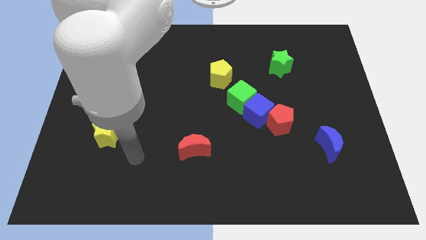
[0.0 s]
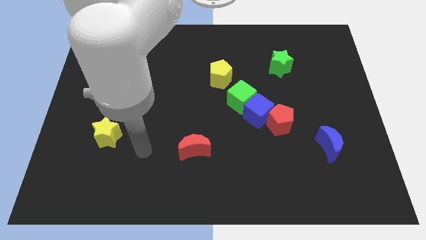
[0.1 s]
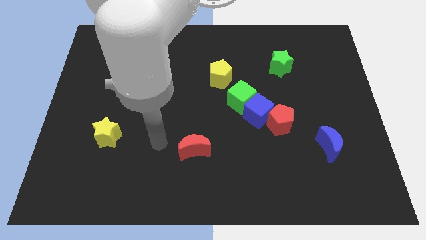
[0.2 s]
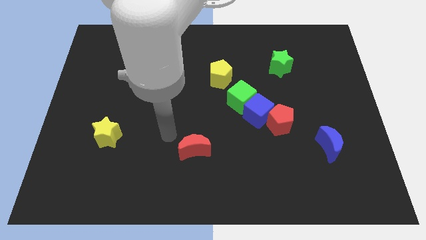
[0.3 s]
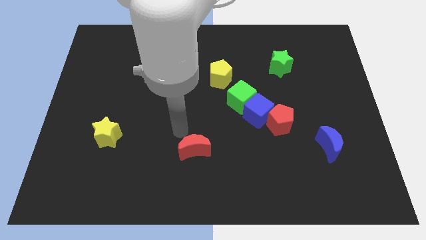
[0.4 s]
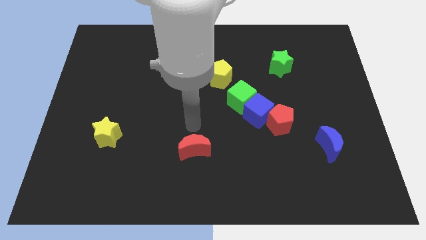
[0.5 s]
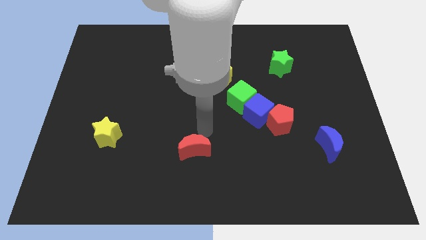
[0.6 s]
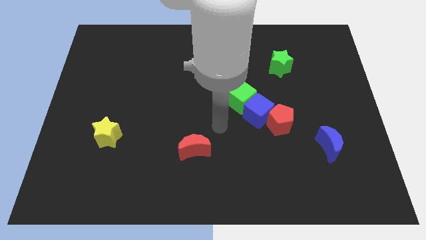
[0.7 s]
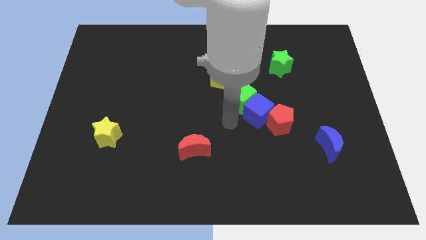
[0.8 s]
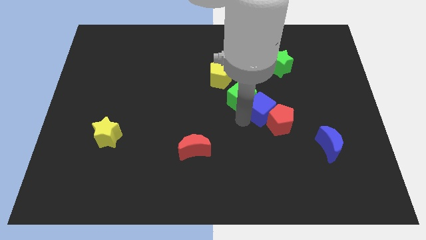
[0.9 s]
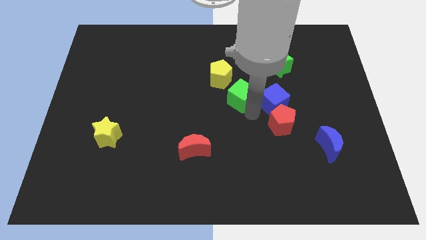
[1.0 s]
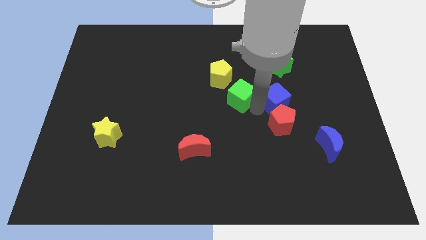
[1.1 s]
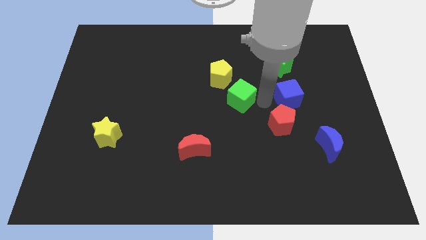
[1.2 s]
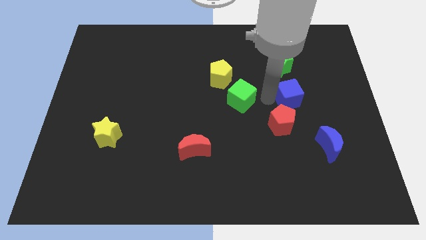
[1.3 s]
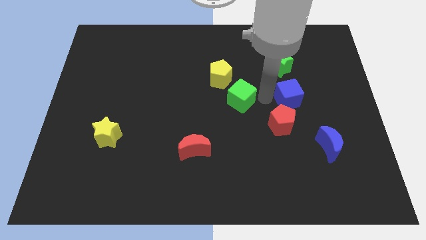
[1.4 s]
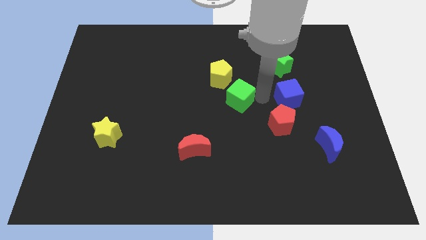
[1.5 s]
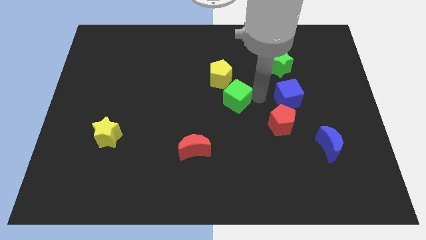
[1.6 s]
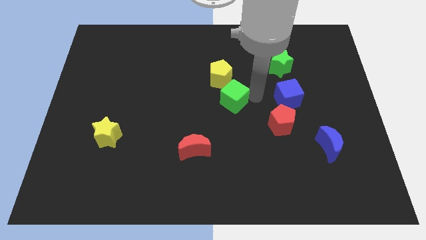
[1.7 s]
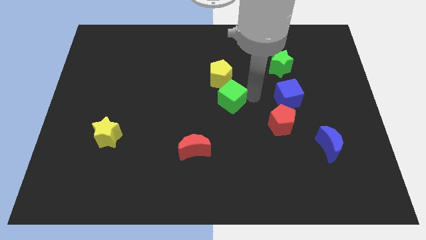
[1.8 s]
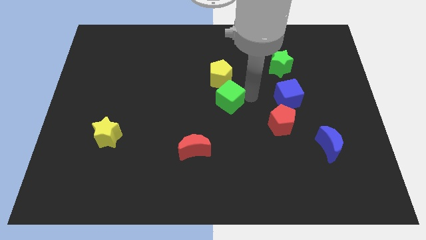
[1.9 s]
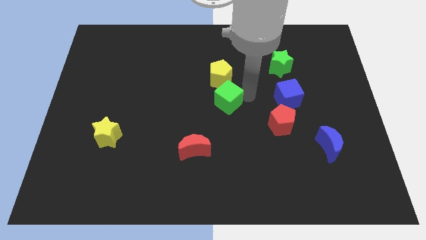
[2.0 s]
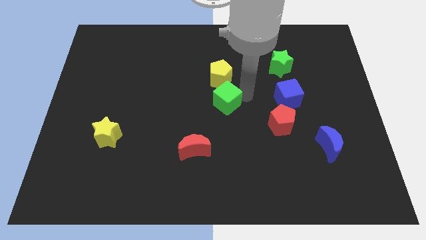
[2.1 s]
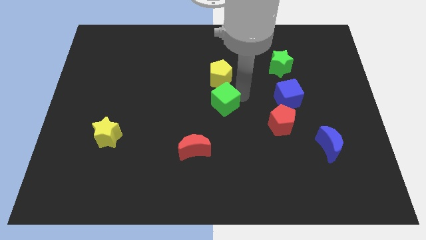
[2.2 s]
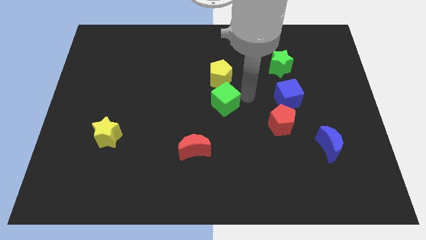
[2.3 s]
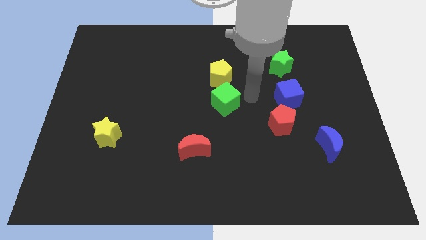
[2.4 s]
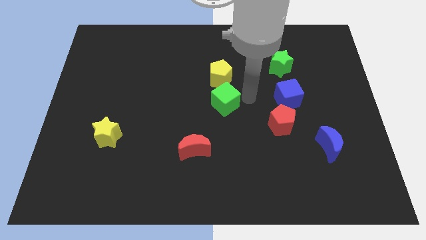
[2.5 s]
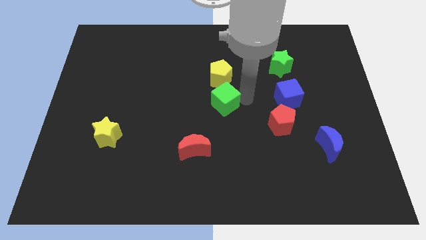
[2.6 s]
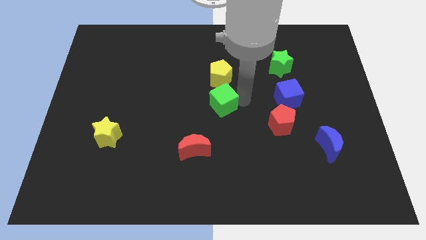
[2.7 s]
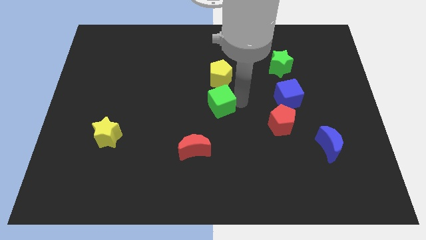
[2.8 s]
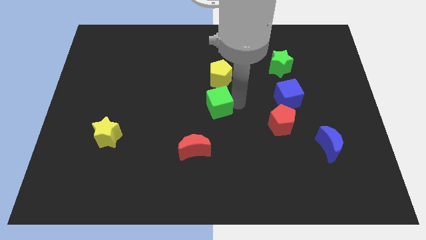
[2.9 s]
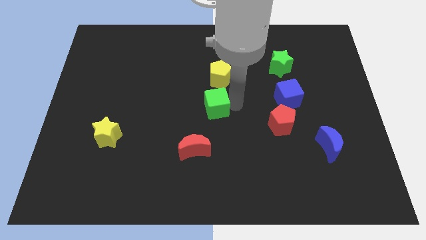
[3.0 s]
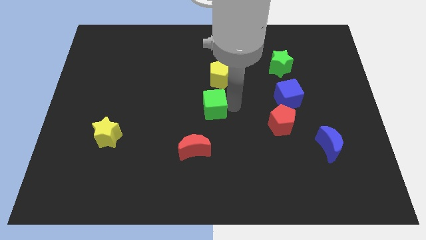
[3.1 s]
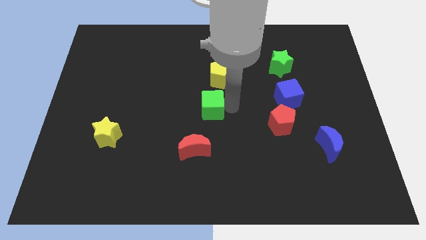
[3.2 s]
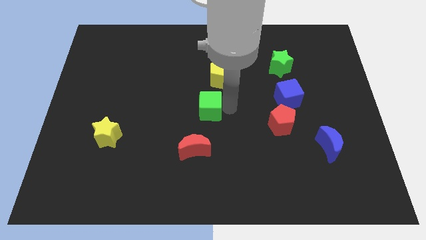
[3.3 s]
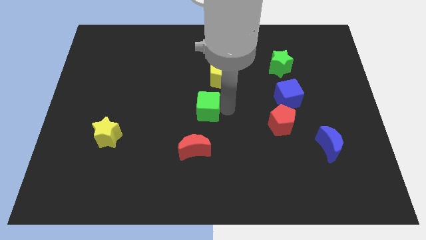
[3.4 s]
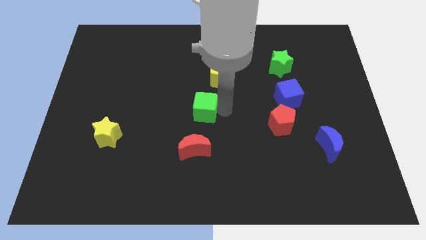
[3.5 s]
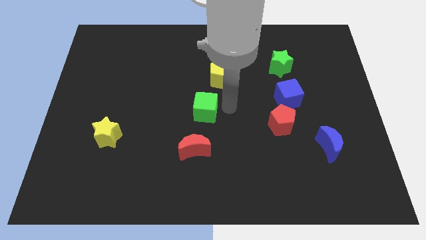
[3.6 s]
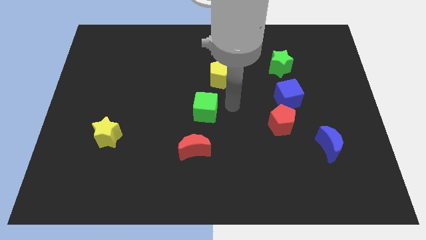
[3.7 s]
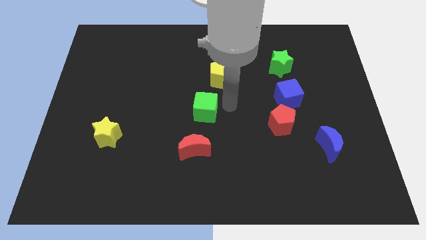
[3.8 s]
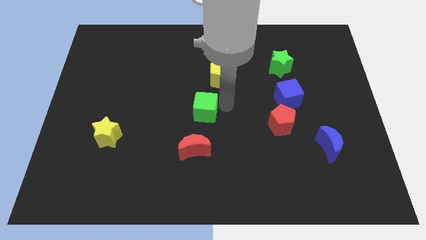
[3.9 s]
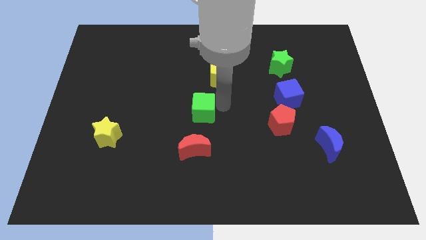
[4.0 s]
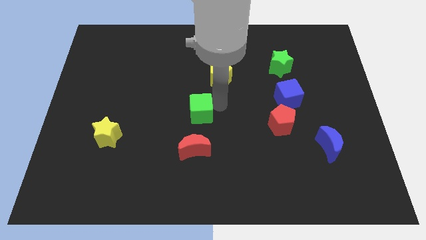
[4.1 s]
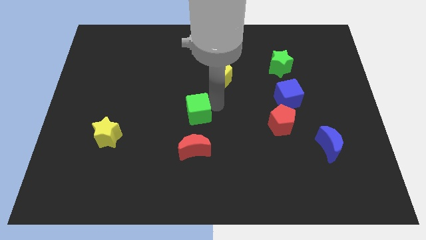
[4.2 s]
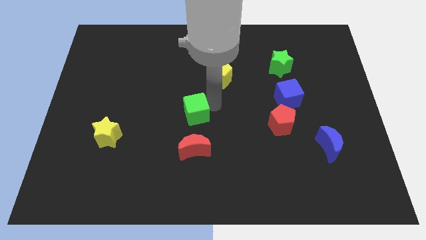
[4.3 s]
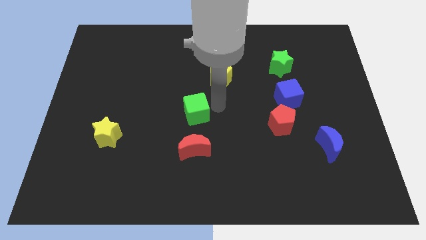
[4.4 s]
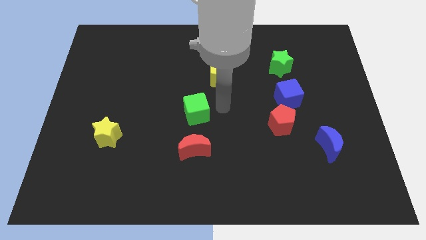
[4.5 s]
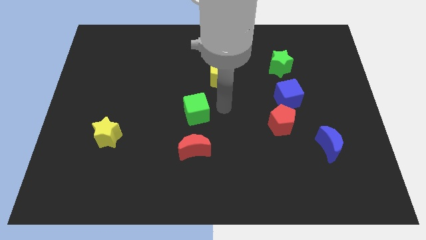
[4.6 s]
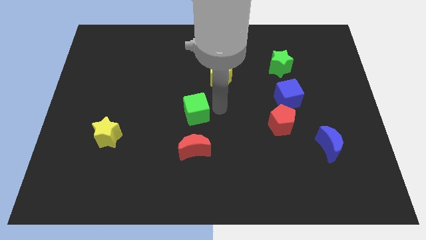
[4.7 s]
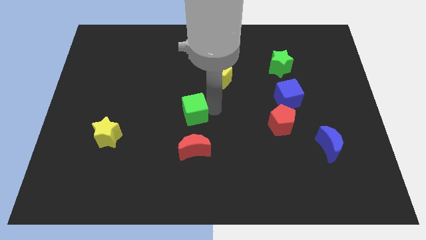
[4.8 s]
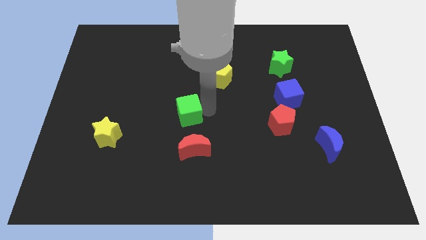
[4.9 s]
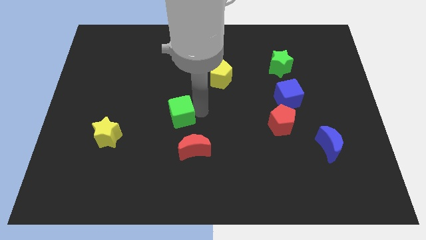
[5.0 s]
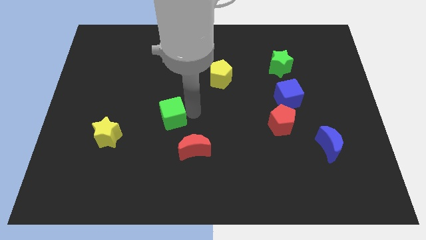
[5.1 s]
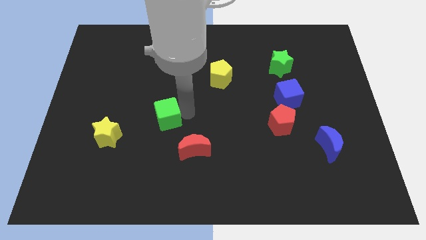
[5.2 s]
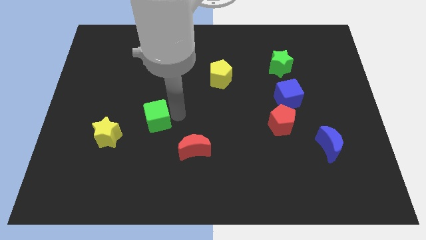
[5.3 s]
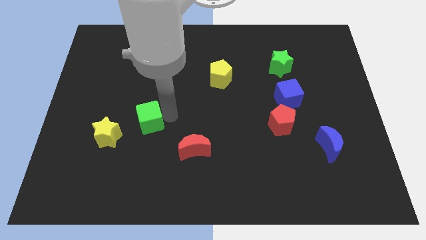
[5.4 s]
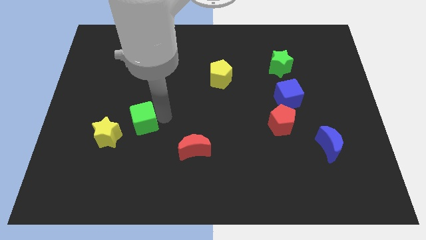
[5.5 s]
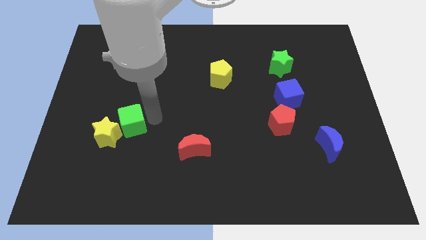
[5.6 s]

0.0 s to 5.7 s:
put the green cube to the yellow star

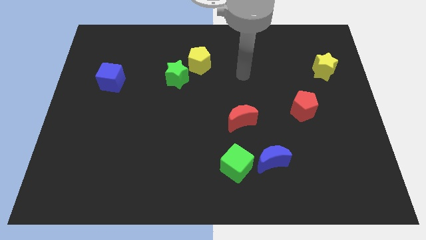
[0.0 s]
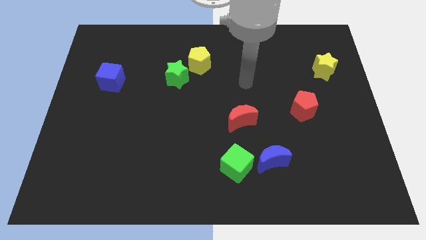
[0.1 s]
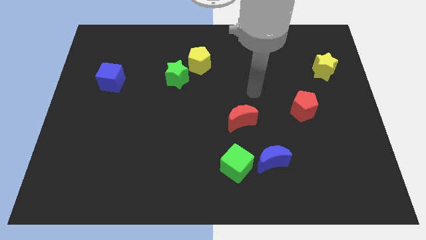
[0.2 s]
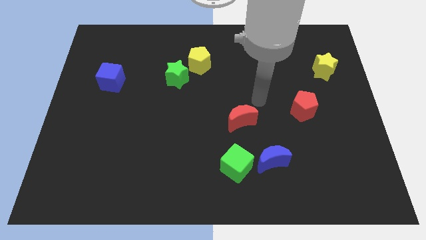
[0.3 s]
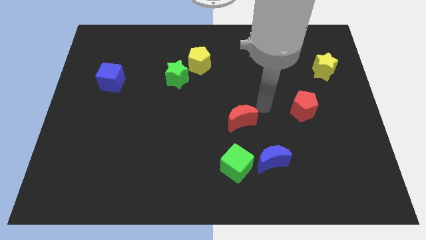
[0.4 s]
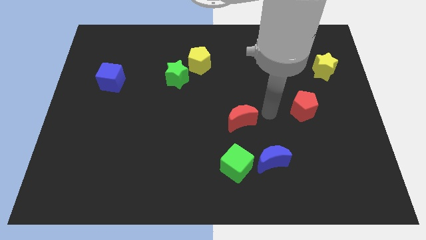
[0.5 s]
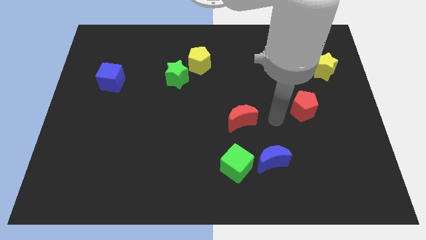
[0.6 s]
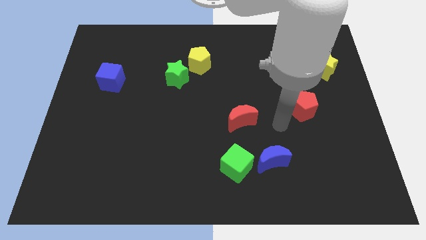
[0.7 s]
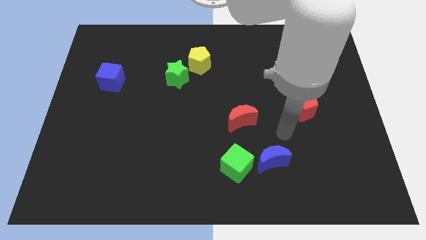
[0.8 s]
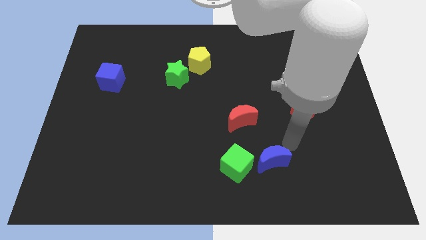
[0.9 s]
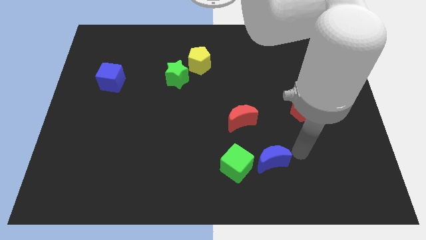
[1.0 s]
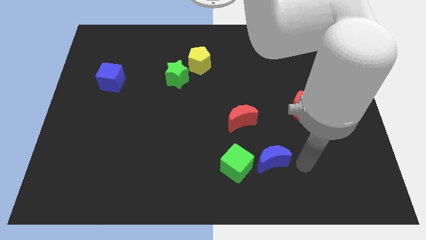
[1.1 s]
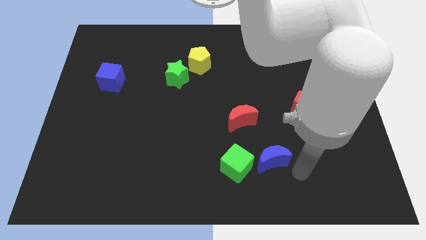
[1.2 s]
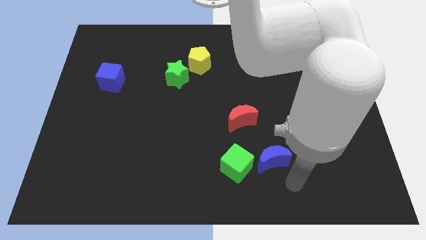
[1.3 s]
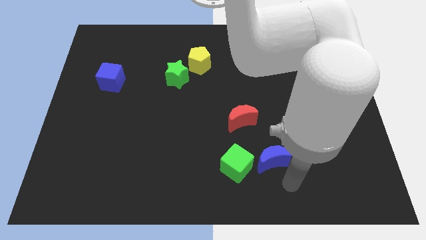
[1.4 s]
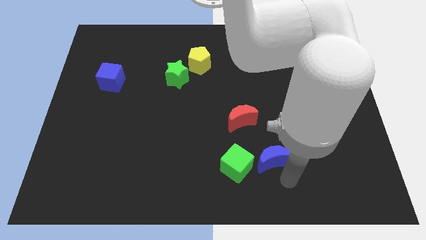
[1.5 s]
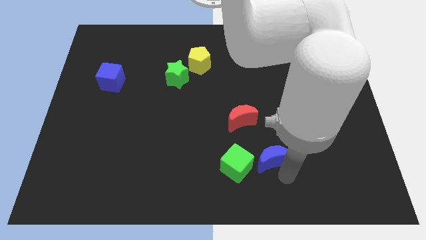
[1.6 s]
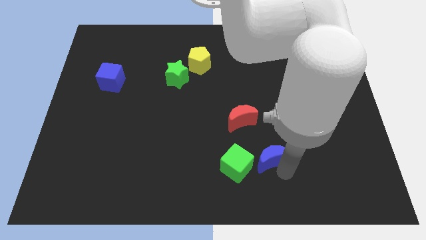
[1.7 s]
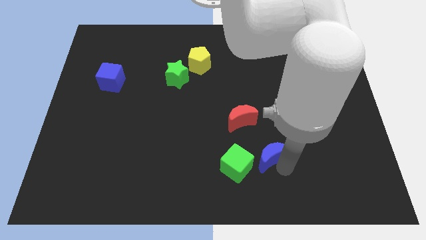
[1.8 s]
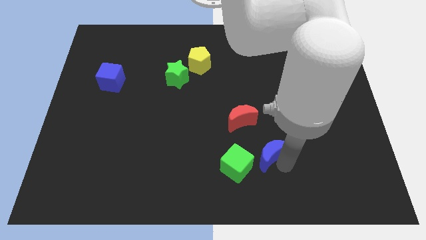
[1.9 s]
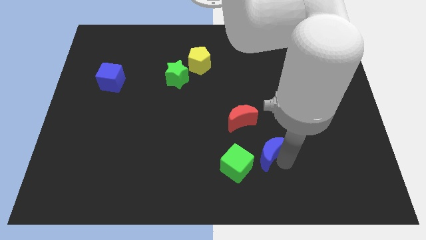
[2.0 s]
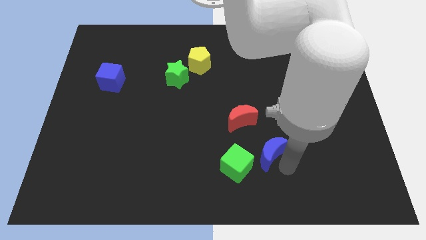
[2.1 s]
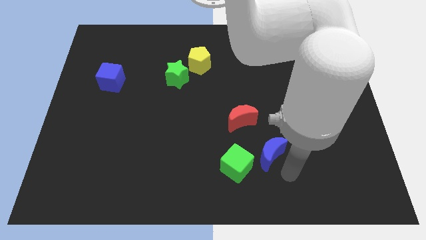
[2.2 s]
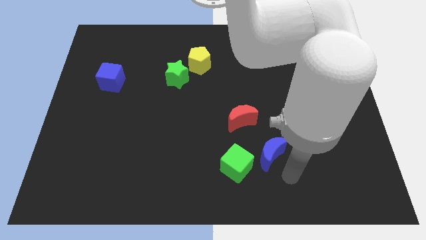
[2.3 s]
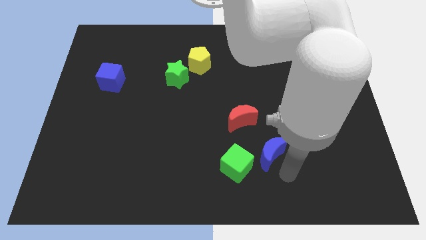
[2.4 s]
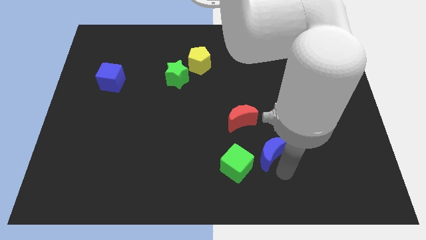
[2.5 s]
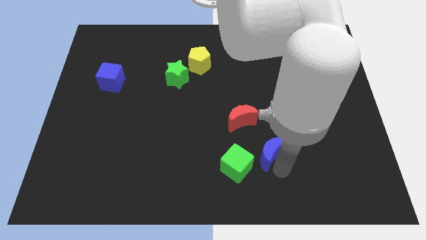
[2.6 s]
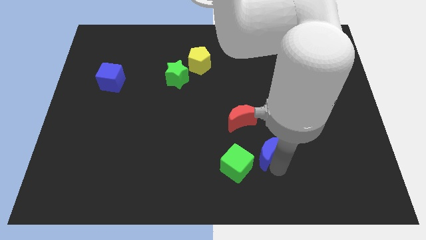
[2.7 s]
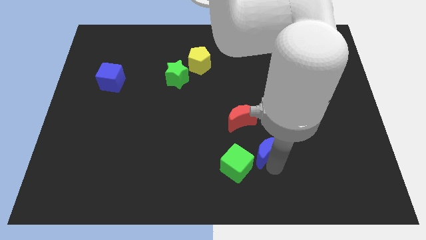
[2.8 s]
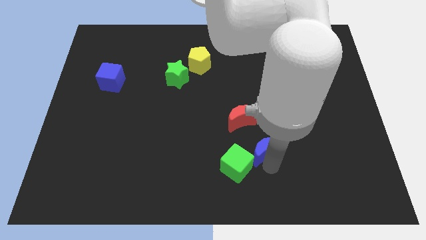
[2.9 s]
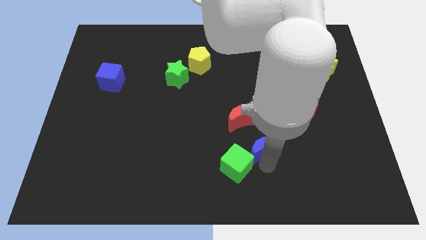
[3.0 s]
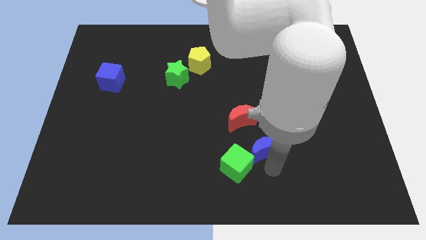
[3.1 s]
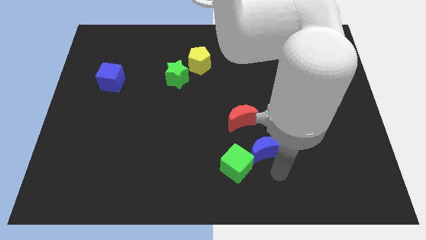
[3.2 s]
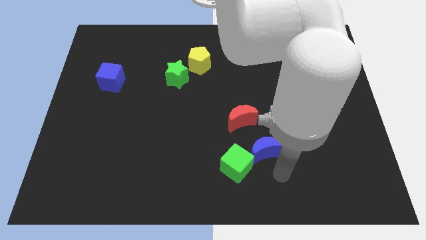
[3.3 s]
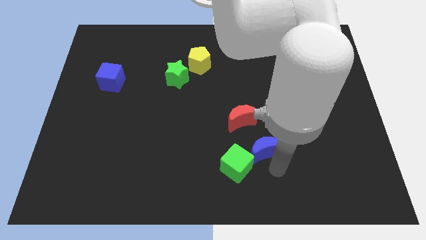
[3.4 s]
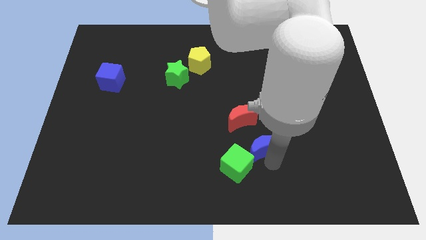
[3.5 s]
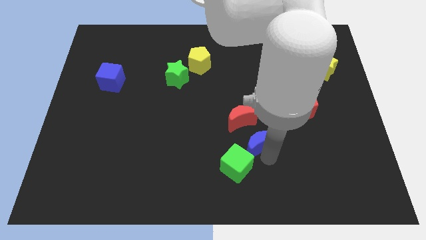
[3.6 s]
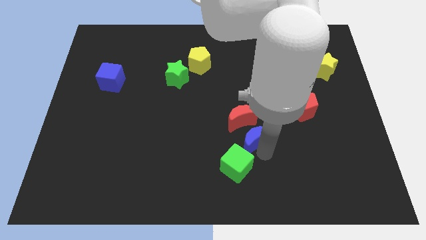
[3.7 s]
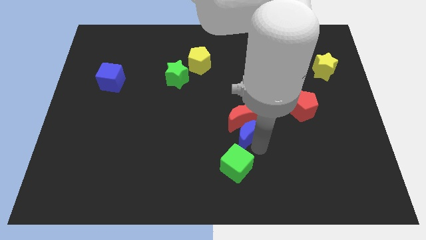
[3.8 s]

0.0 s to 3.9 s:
push the blue moon to the red moon
